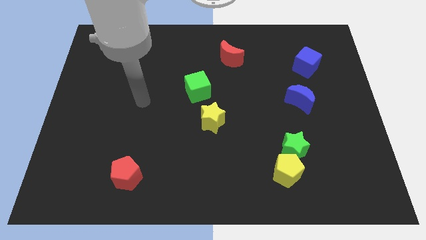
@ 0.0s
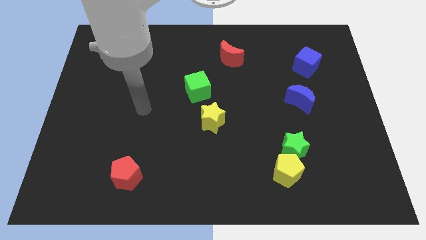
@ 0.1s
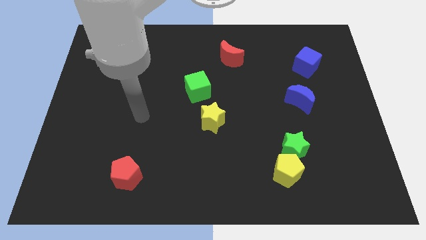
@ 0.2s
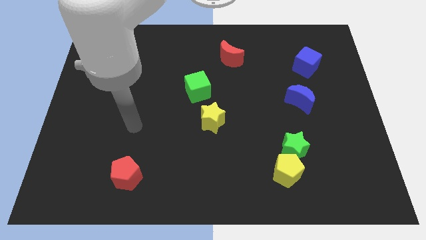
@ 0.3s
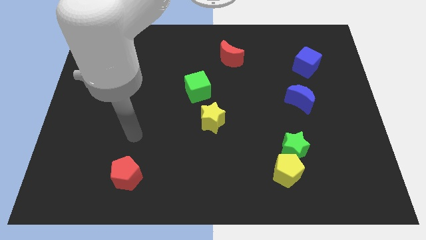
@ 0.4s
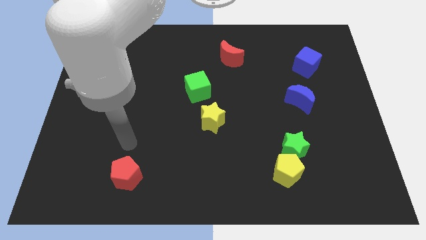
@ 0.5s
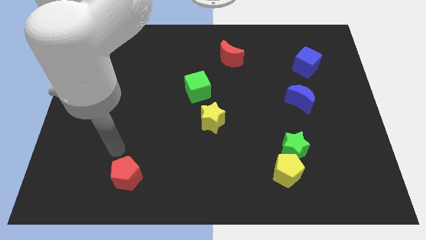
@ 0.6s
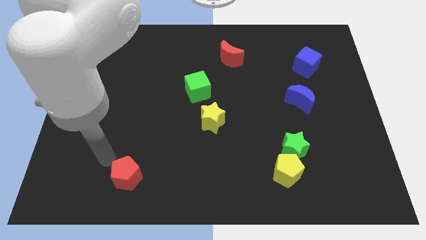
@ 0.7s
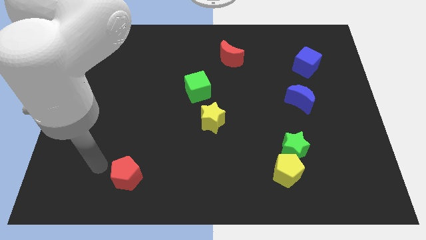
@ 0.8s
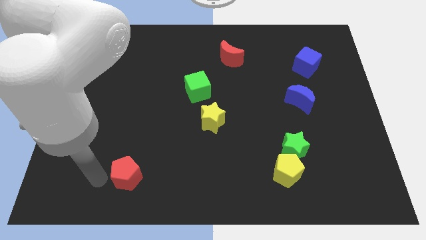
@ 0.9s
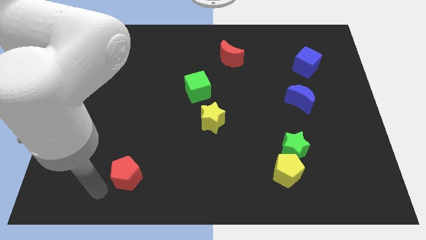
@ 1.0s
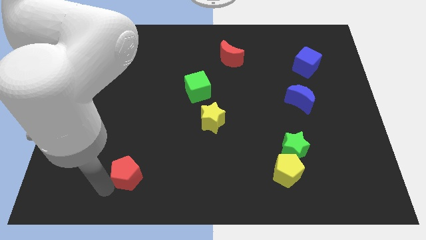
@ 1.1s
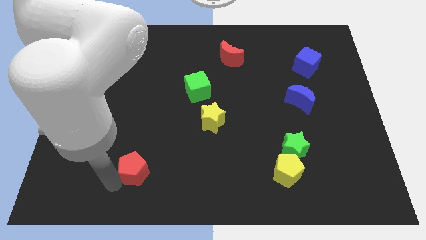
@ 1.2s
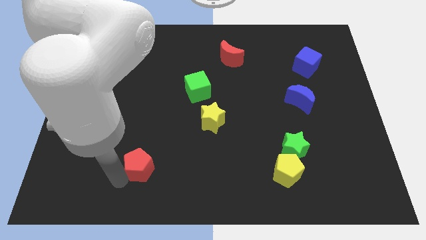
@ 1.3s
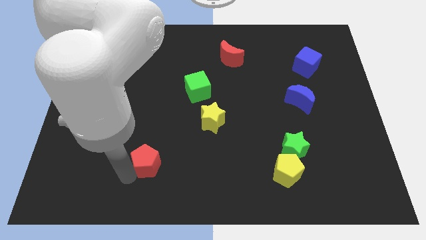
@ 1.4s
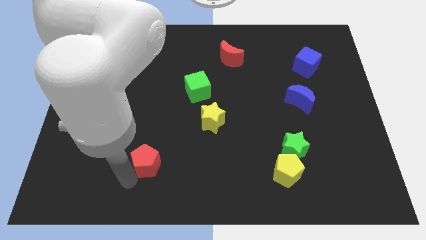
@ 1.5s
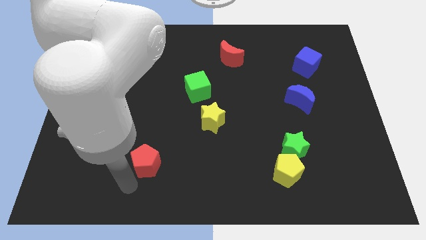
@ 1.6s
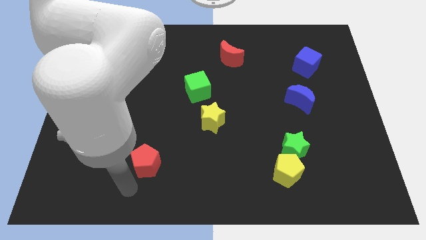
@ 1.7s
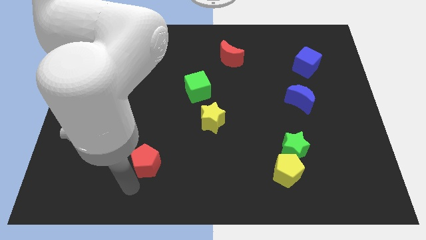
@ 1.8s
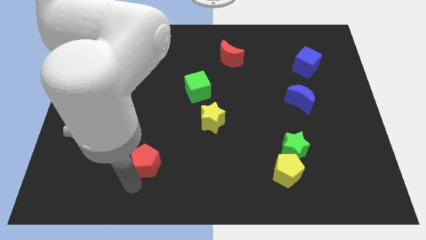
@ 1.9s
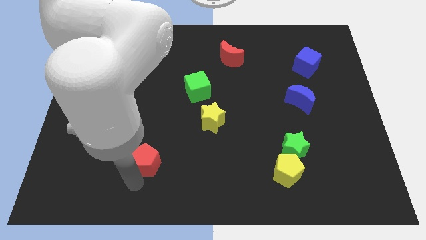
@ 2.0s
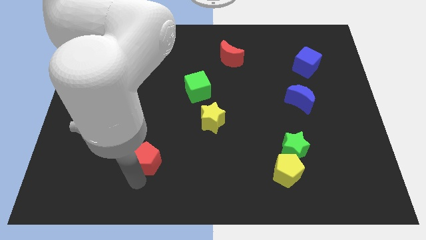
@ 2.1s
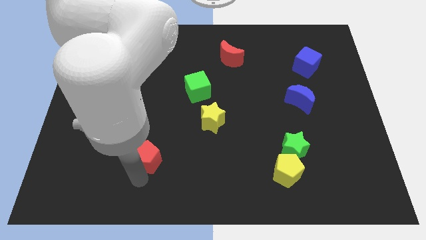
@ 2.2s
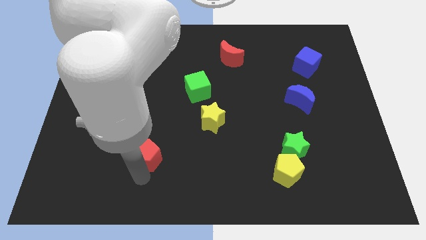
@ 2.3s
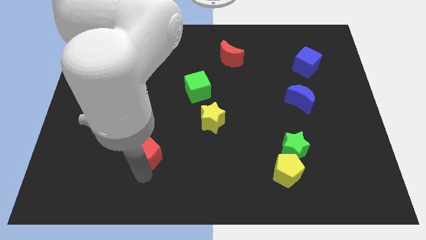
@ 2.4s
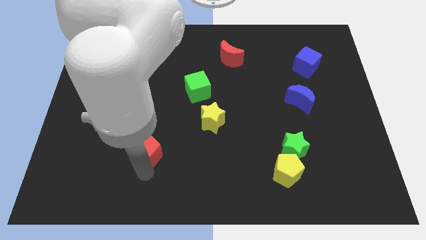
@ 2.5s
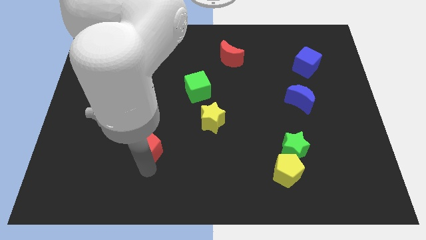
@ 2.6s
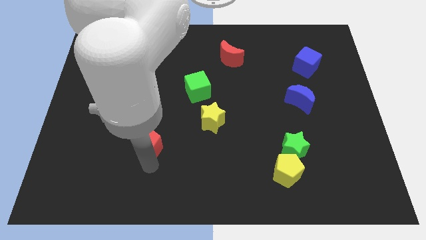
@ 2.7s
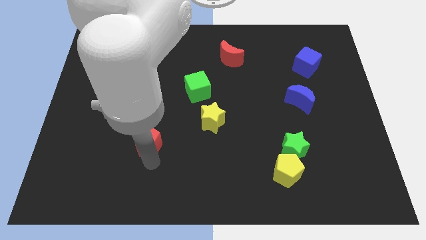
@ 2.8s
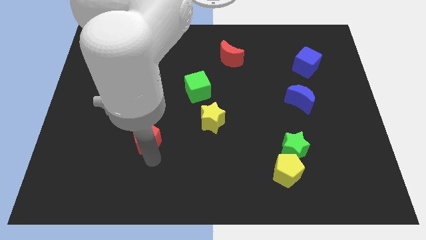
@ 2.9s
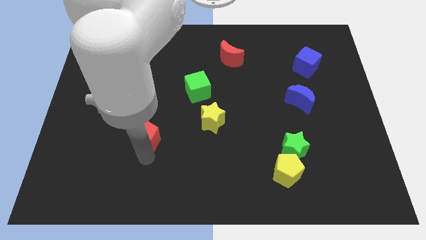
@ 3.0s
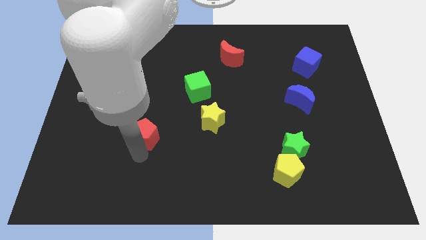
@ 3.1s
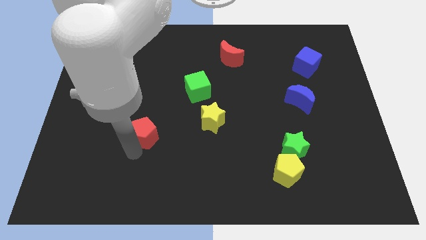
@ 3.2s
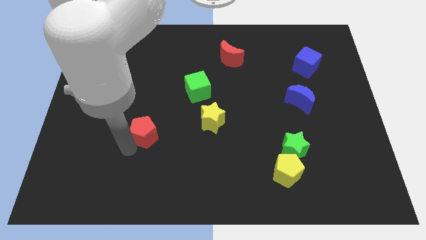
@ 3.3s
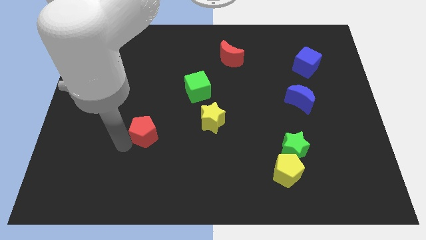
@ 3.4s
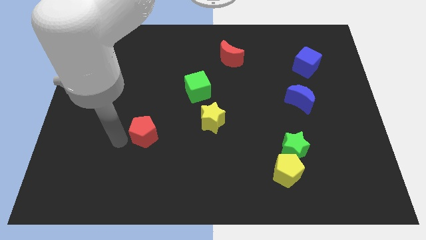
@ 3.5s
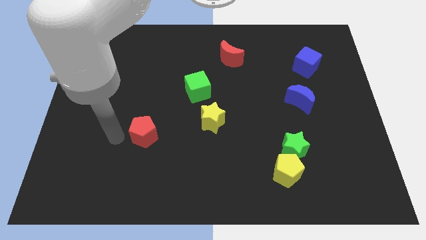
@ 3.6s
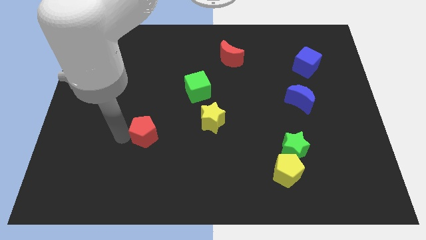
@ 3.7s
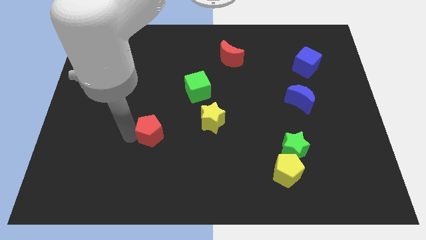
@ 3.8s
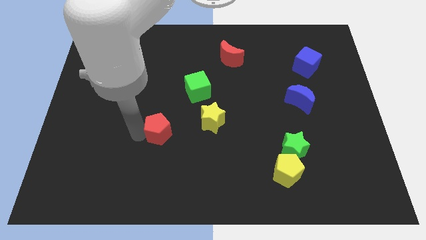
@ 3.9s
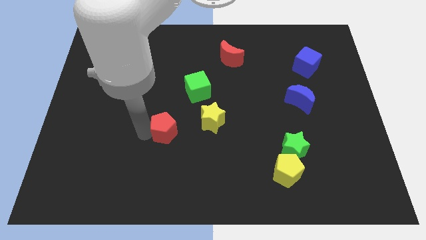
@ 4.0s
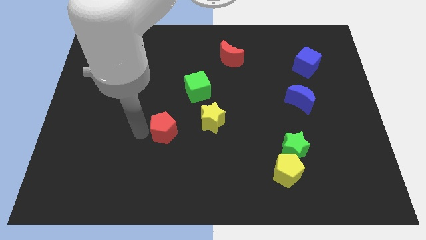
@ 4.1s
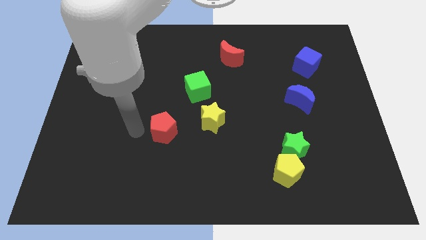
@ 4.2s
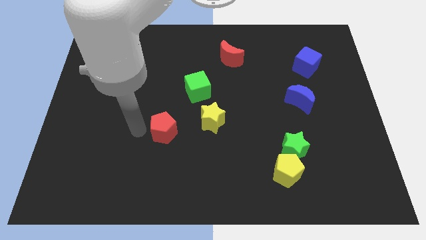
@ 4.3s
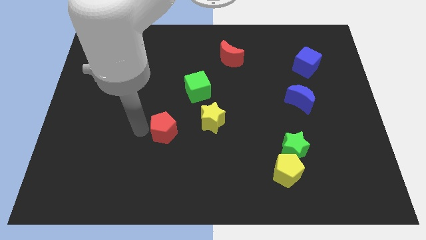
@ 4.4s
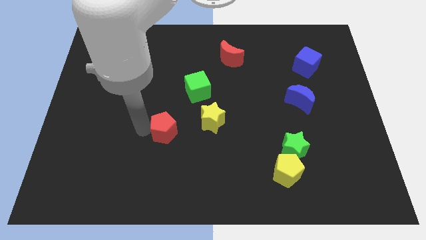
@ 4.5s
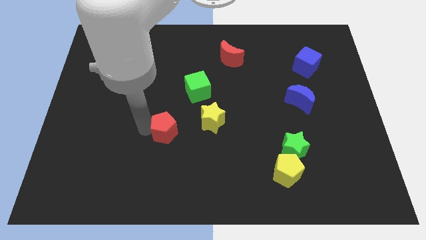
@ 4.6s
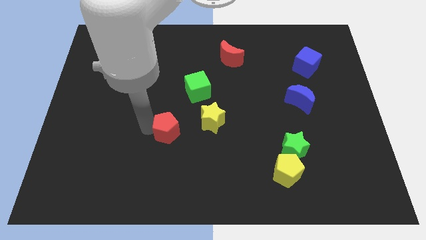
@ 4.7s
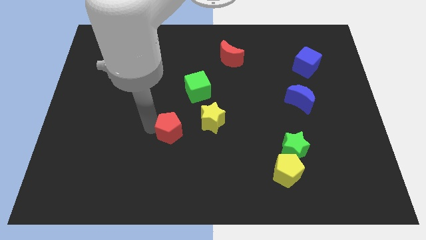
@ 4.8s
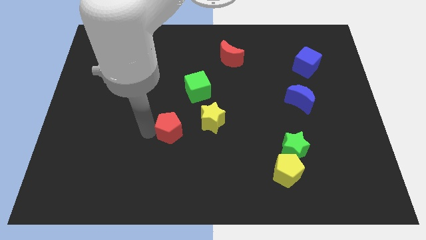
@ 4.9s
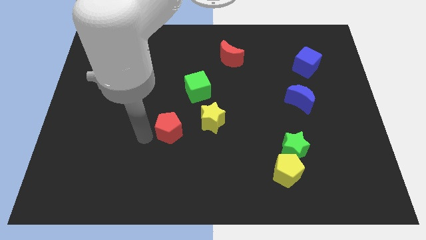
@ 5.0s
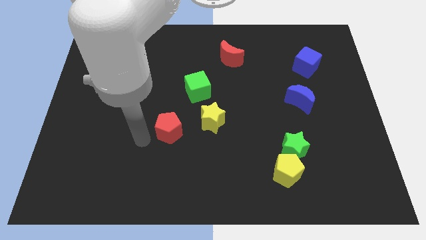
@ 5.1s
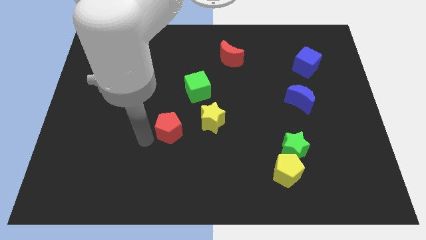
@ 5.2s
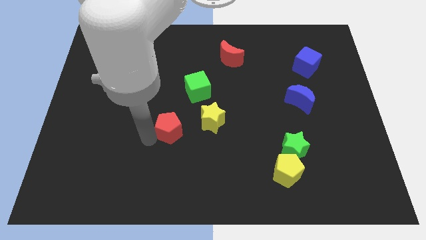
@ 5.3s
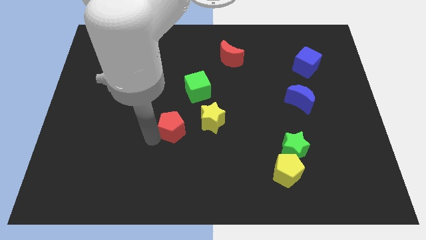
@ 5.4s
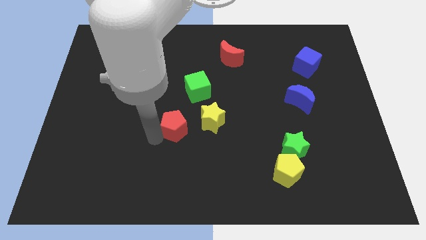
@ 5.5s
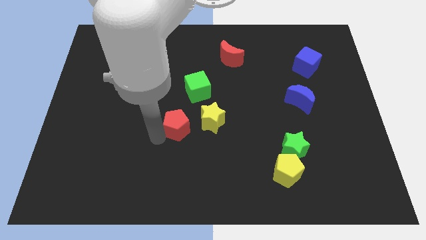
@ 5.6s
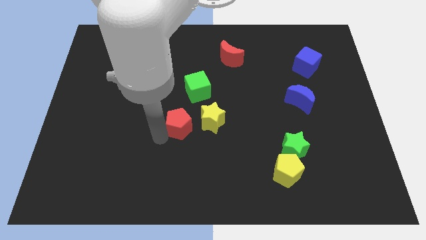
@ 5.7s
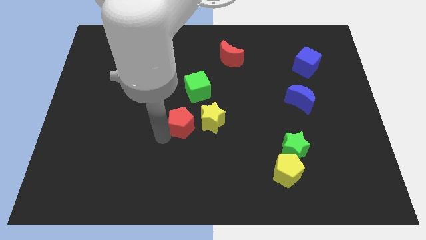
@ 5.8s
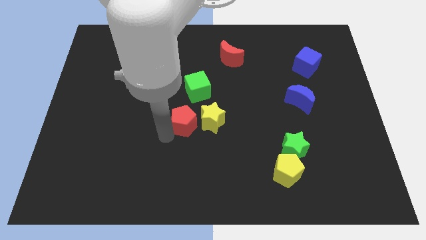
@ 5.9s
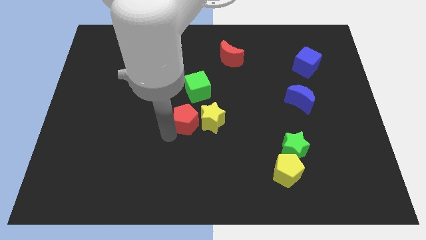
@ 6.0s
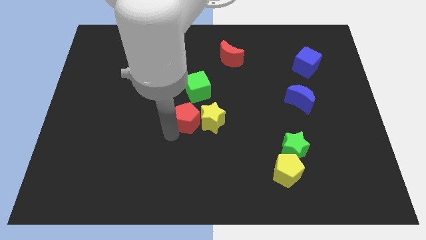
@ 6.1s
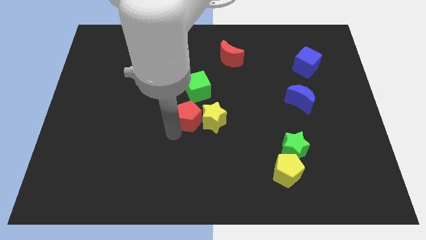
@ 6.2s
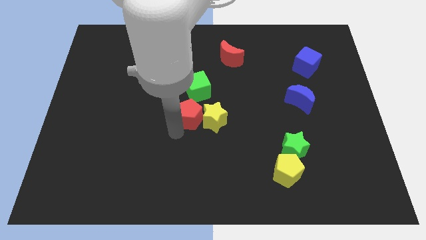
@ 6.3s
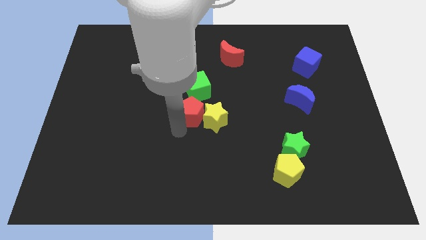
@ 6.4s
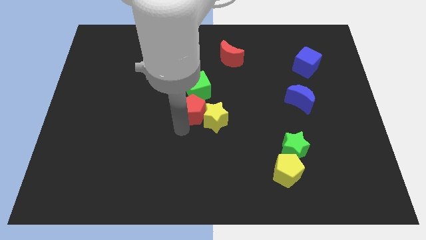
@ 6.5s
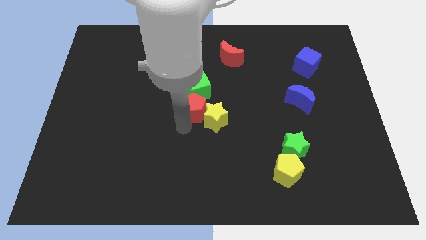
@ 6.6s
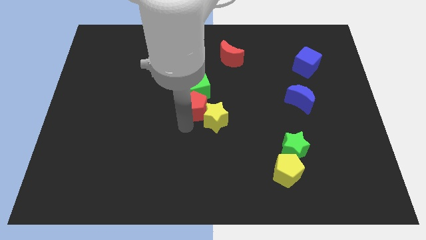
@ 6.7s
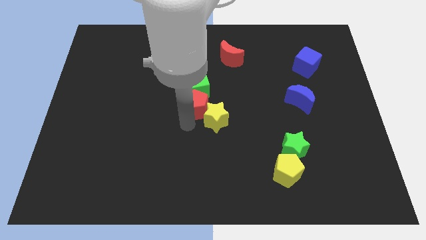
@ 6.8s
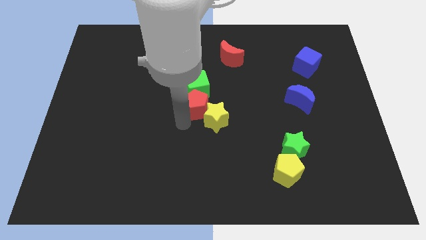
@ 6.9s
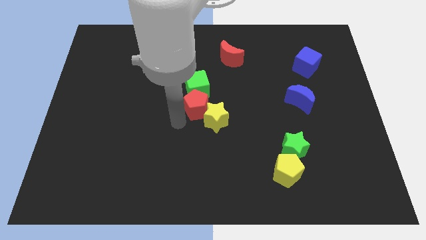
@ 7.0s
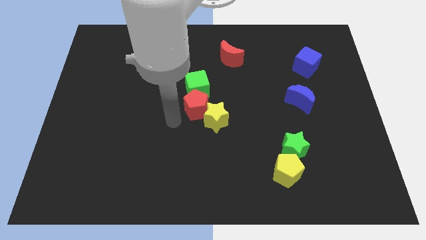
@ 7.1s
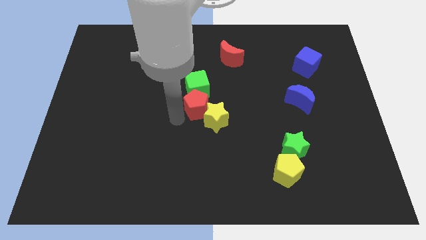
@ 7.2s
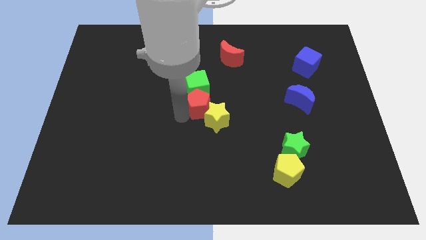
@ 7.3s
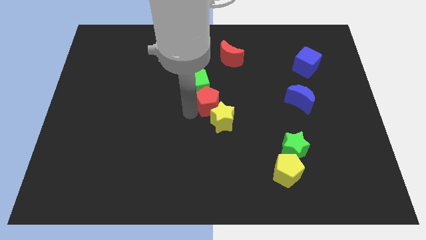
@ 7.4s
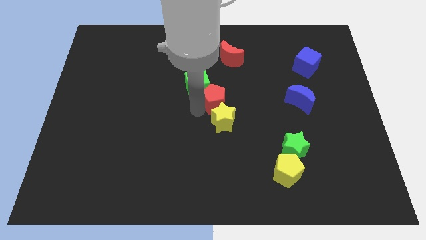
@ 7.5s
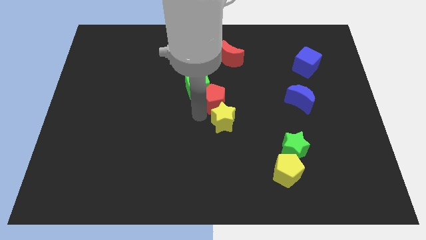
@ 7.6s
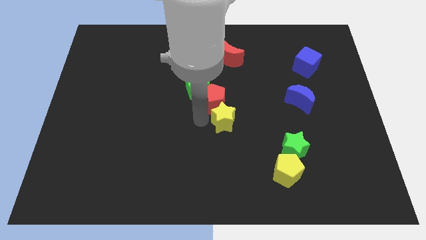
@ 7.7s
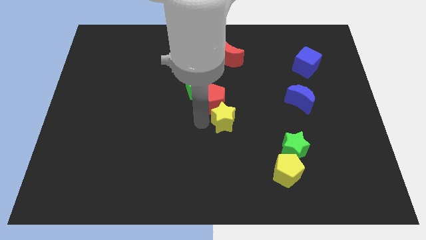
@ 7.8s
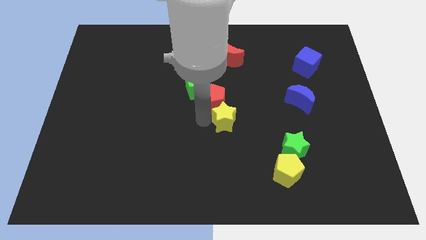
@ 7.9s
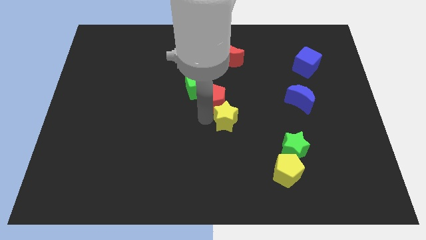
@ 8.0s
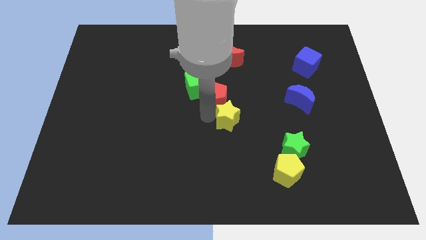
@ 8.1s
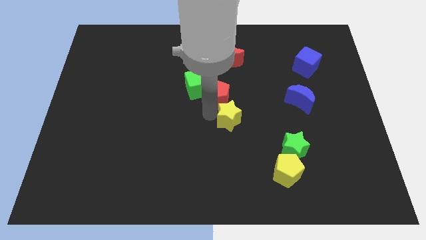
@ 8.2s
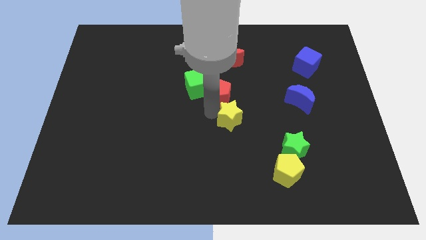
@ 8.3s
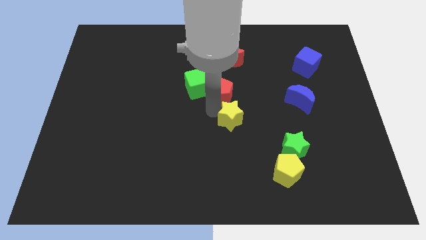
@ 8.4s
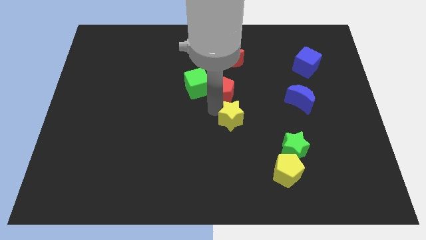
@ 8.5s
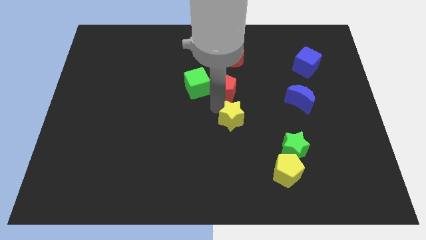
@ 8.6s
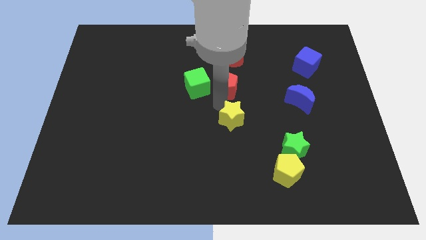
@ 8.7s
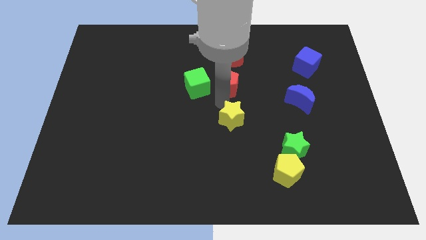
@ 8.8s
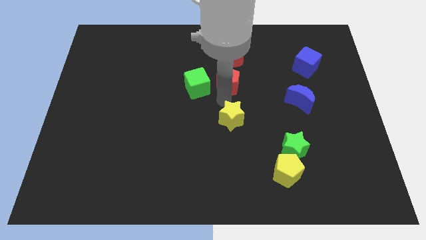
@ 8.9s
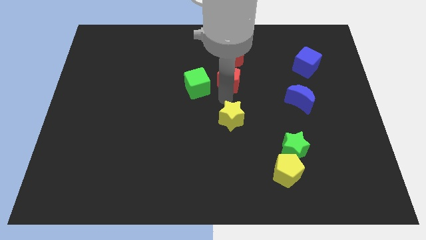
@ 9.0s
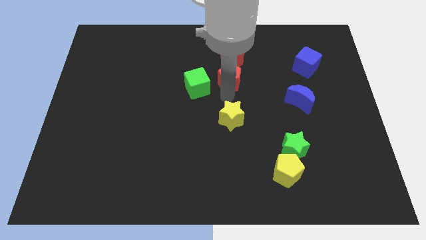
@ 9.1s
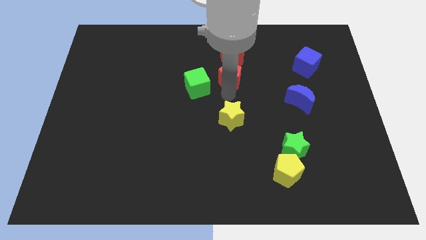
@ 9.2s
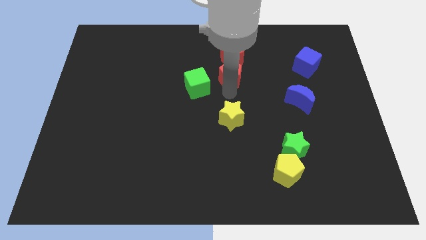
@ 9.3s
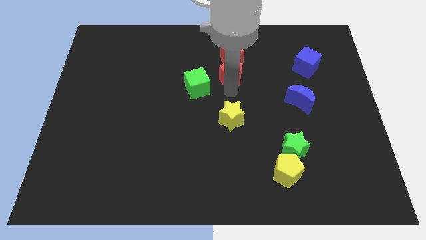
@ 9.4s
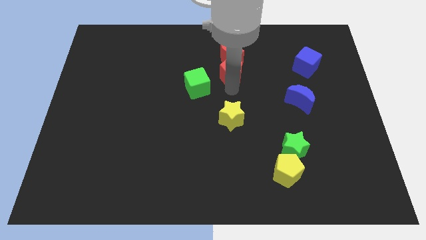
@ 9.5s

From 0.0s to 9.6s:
move the red pentagon next to the red moon
